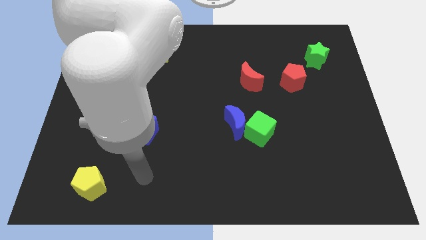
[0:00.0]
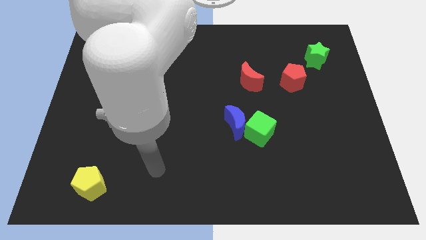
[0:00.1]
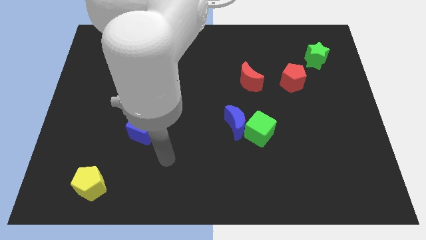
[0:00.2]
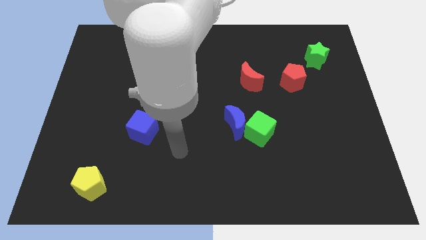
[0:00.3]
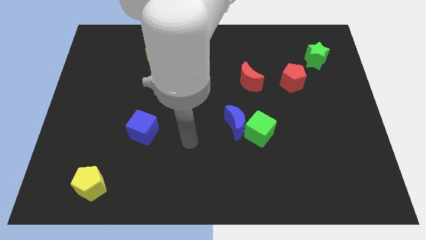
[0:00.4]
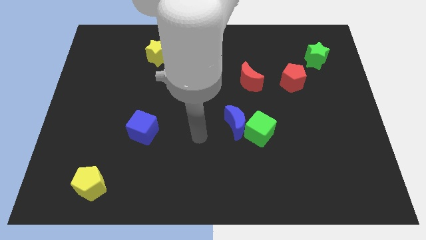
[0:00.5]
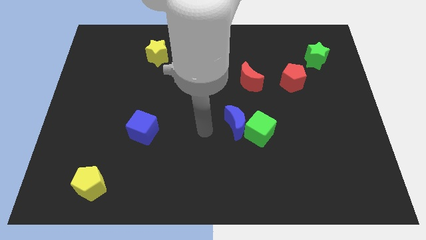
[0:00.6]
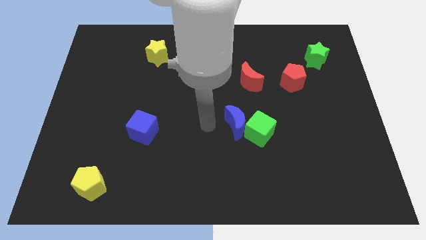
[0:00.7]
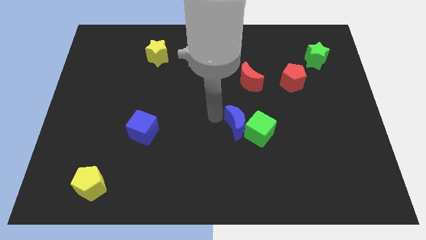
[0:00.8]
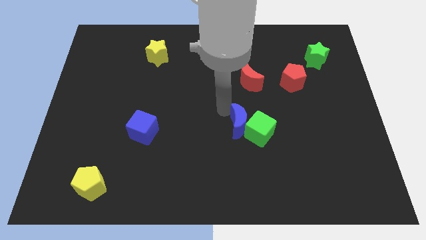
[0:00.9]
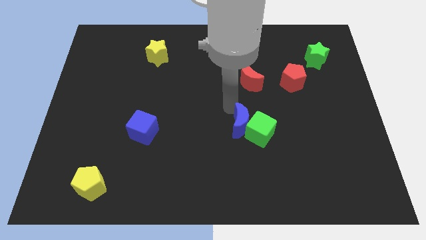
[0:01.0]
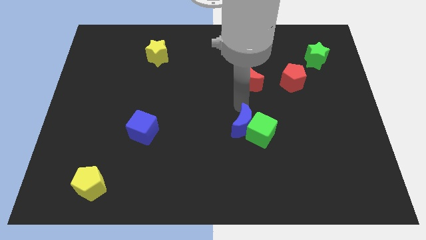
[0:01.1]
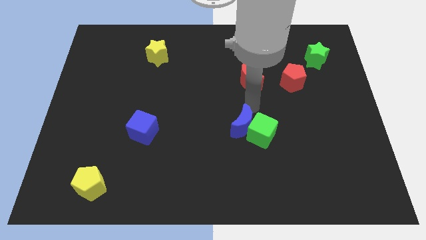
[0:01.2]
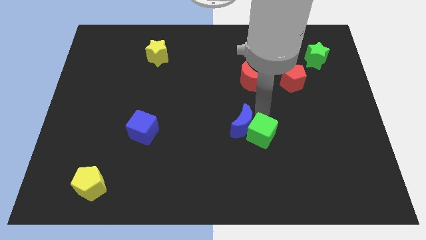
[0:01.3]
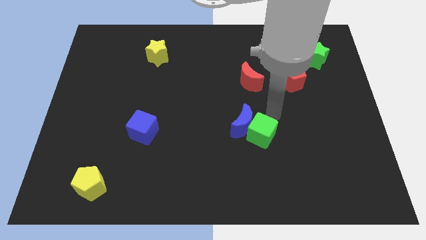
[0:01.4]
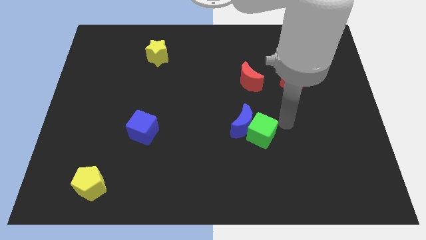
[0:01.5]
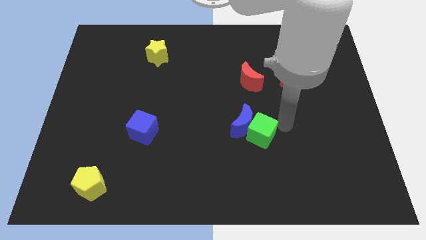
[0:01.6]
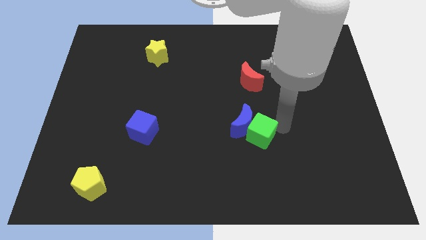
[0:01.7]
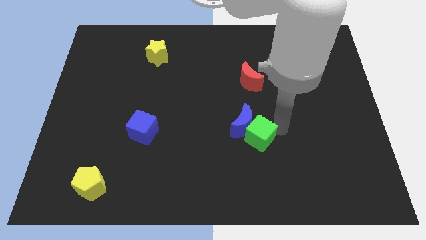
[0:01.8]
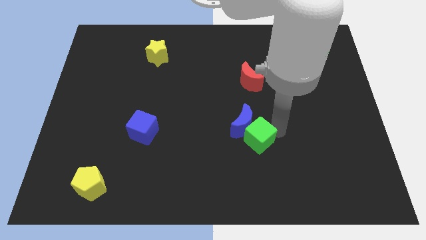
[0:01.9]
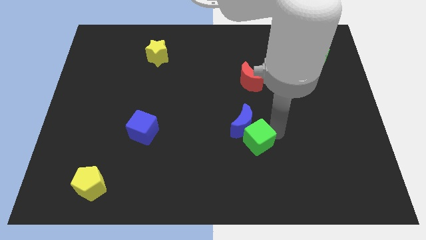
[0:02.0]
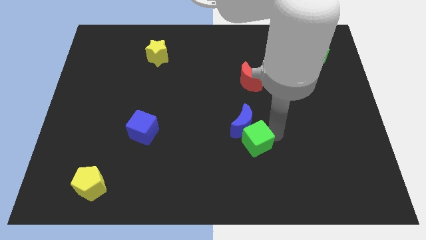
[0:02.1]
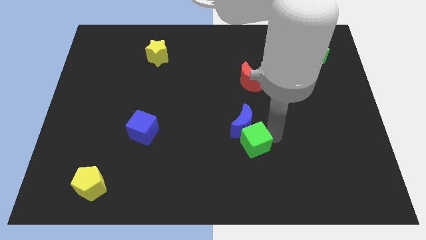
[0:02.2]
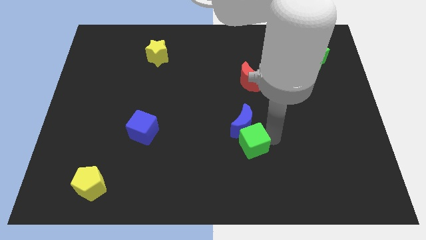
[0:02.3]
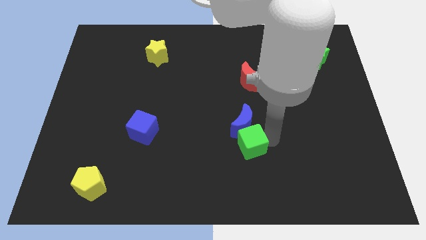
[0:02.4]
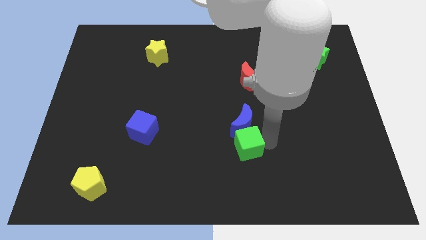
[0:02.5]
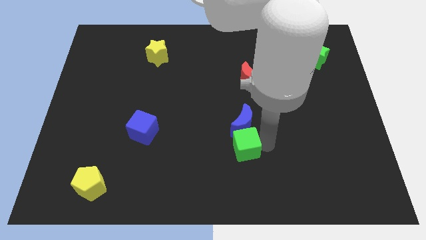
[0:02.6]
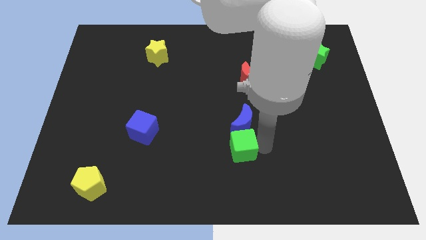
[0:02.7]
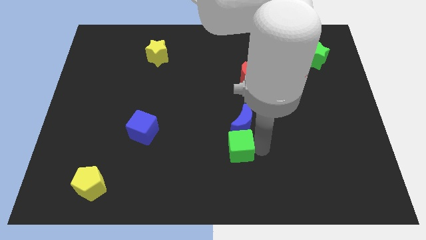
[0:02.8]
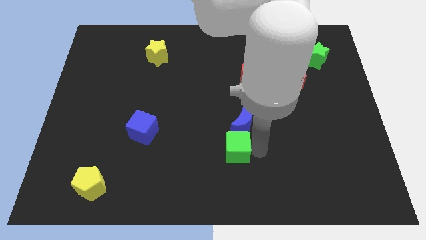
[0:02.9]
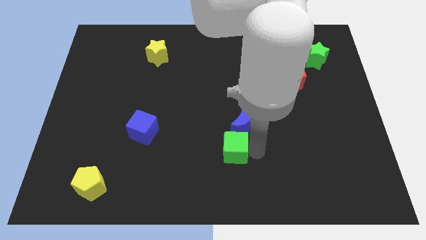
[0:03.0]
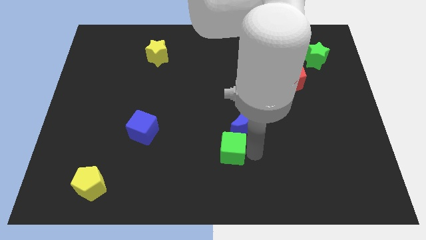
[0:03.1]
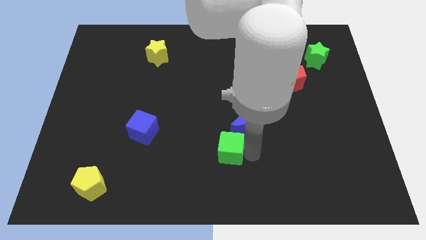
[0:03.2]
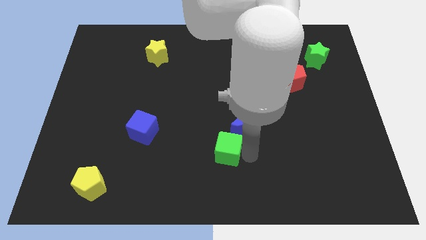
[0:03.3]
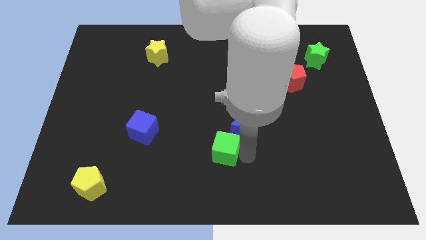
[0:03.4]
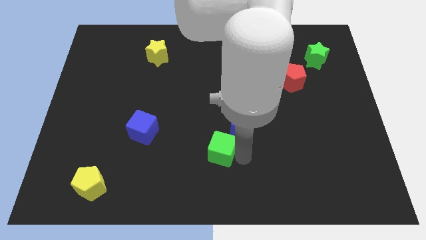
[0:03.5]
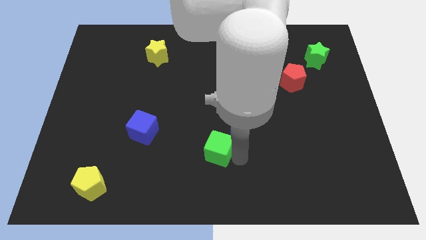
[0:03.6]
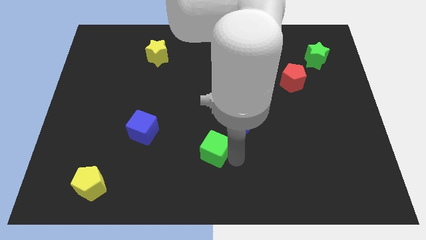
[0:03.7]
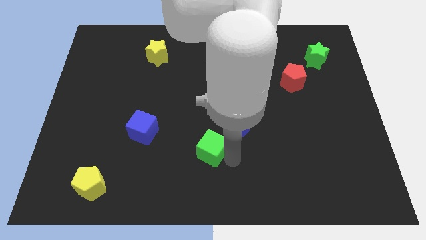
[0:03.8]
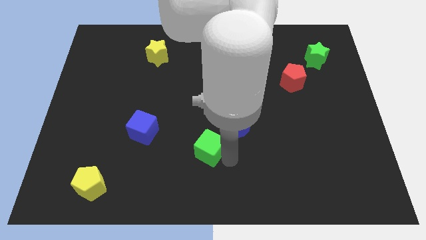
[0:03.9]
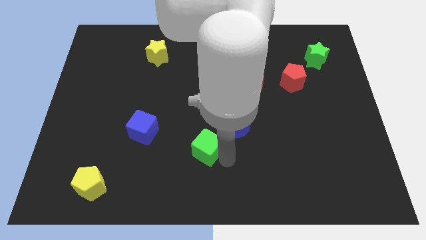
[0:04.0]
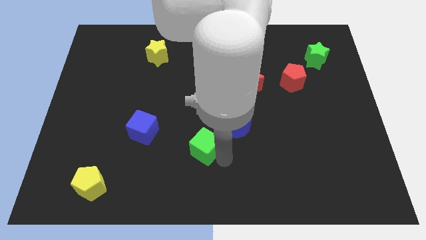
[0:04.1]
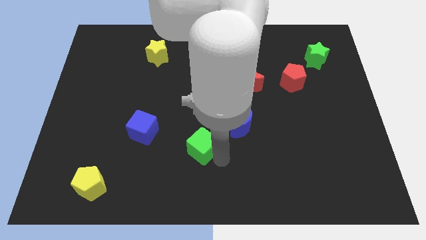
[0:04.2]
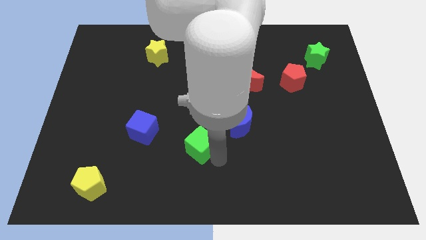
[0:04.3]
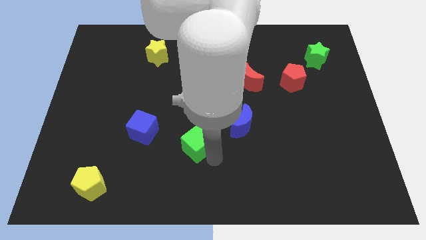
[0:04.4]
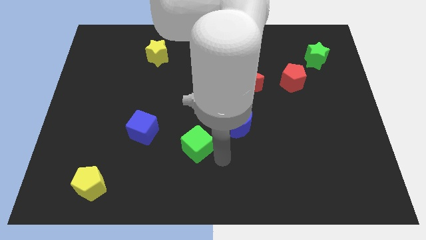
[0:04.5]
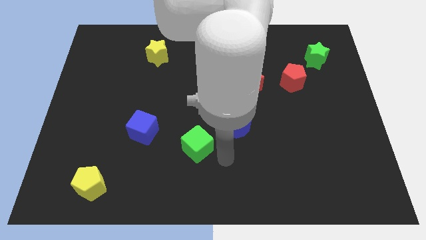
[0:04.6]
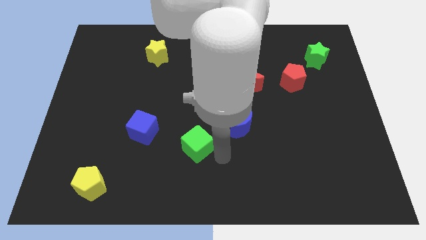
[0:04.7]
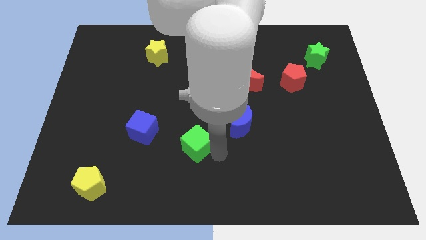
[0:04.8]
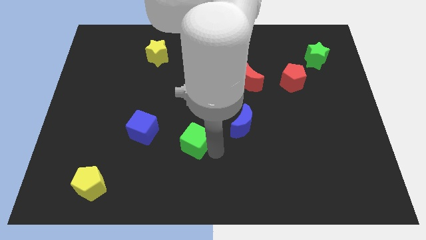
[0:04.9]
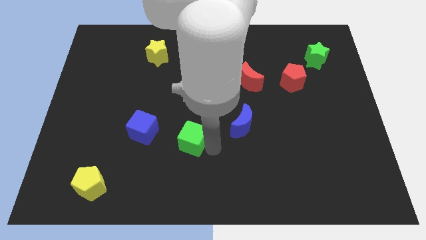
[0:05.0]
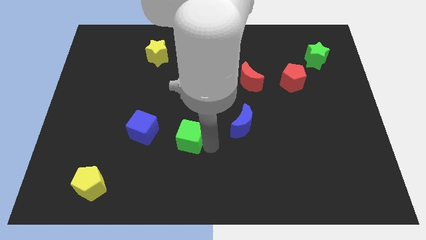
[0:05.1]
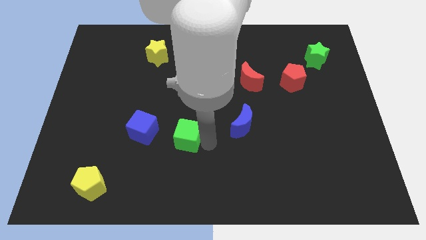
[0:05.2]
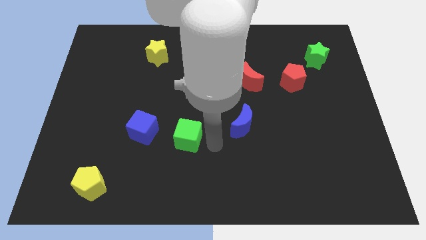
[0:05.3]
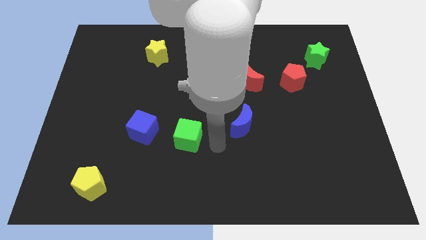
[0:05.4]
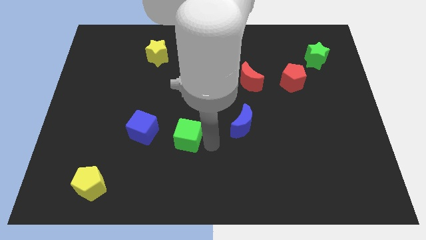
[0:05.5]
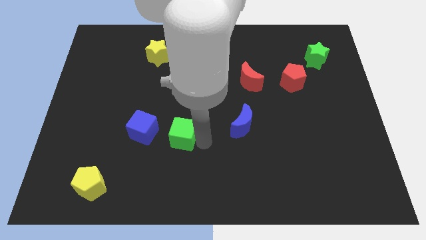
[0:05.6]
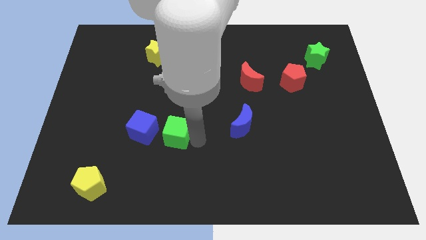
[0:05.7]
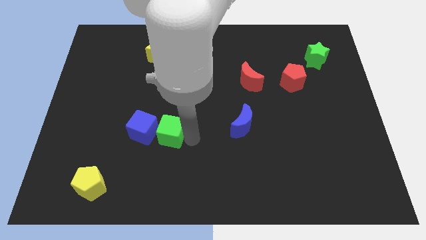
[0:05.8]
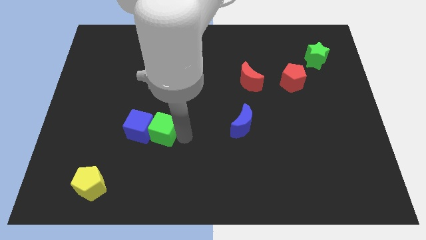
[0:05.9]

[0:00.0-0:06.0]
put the green cube to the blue cube

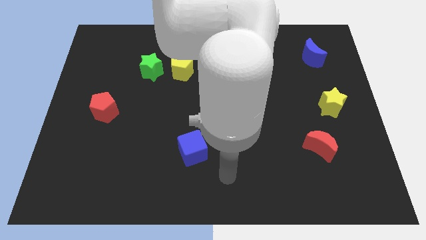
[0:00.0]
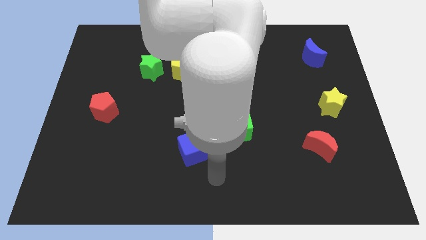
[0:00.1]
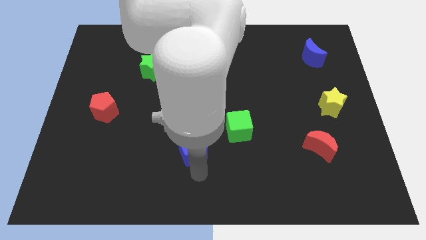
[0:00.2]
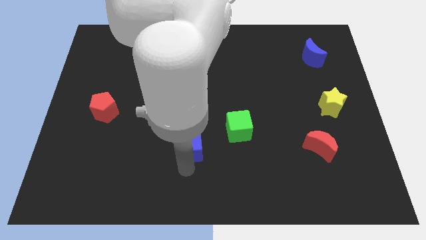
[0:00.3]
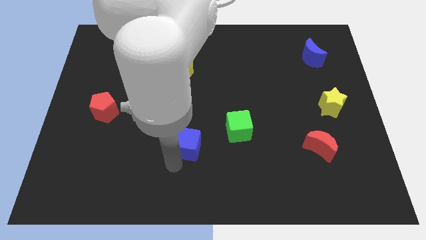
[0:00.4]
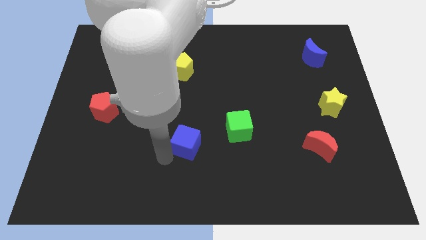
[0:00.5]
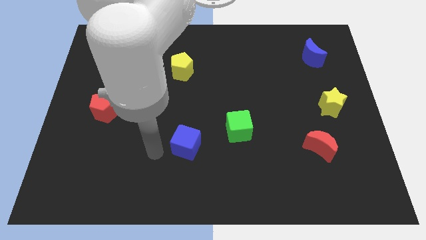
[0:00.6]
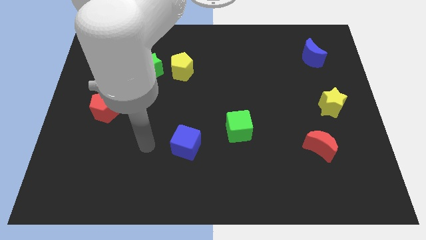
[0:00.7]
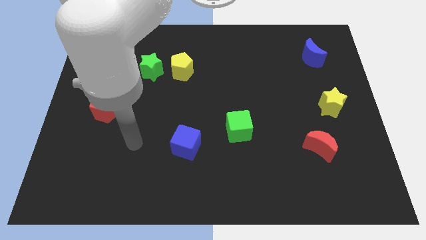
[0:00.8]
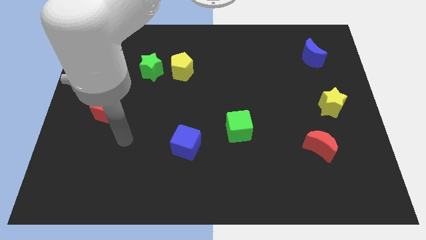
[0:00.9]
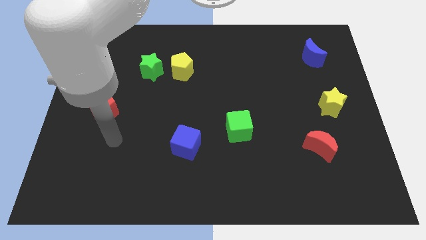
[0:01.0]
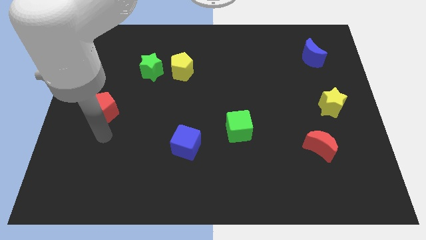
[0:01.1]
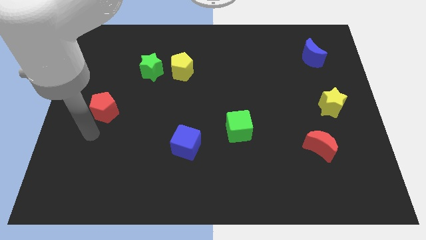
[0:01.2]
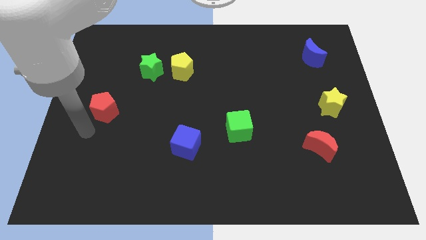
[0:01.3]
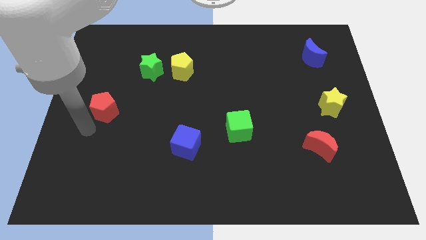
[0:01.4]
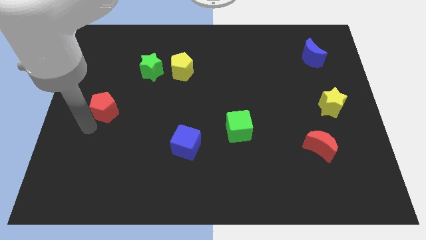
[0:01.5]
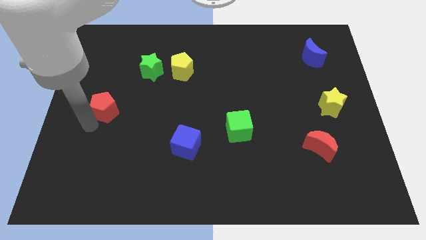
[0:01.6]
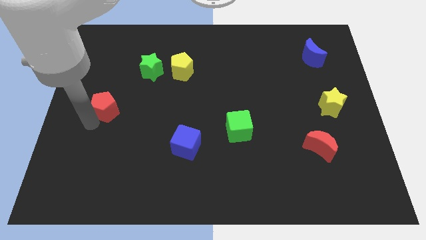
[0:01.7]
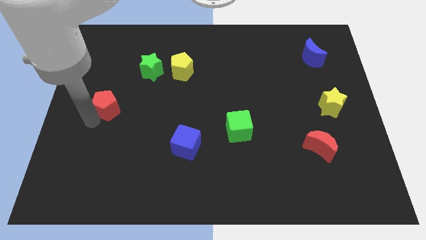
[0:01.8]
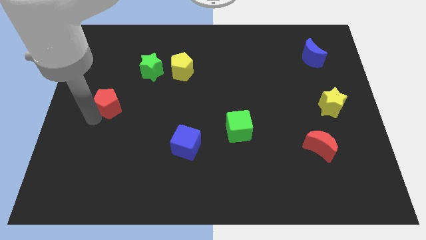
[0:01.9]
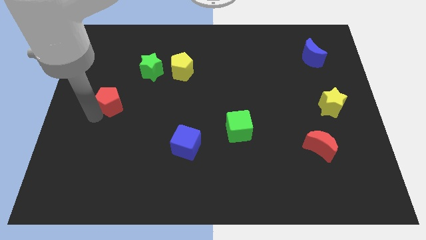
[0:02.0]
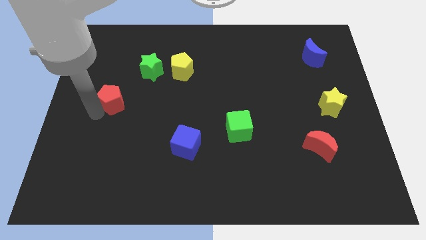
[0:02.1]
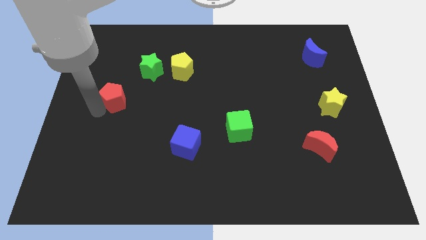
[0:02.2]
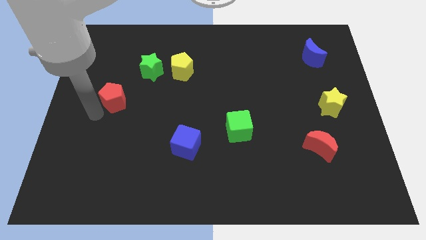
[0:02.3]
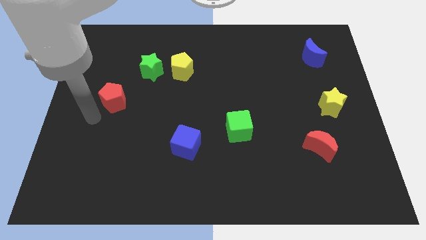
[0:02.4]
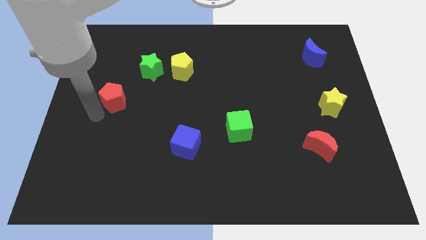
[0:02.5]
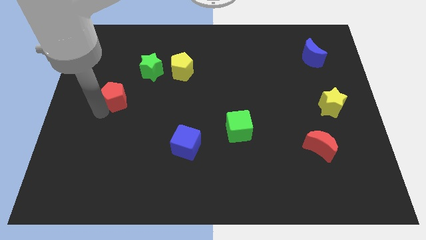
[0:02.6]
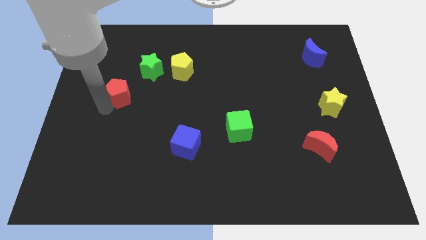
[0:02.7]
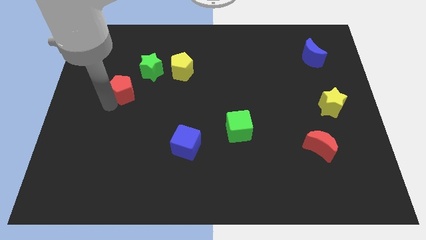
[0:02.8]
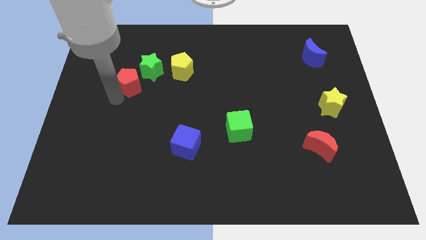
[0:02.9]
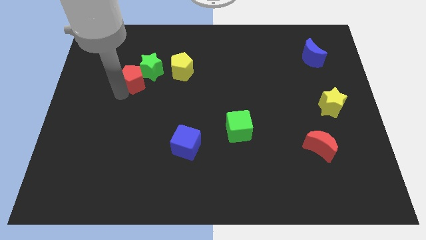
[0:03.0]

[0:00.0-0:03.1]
put the red pentagon towards the green star
